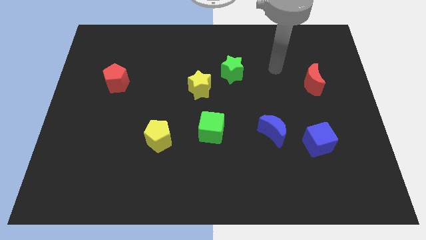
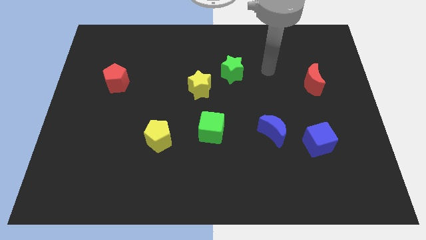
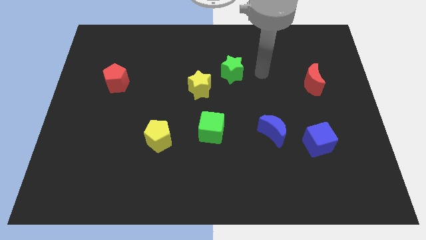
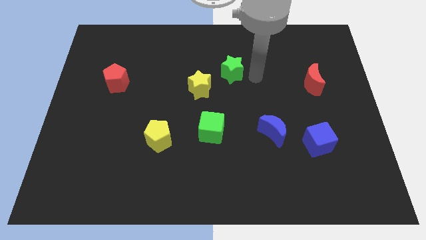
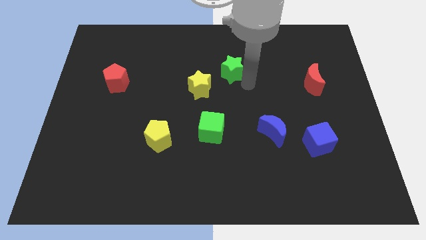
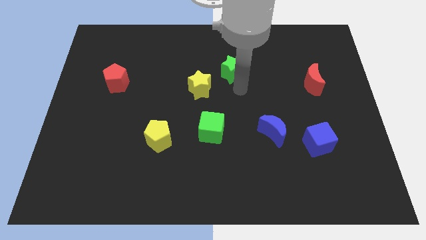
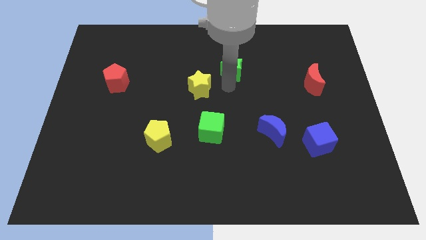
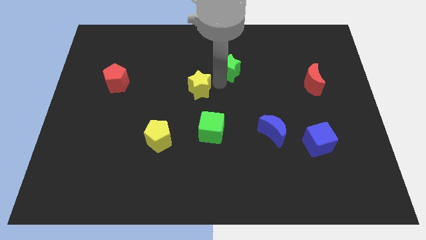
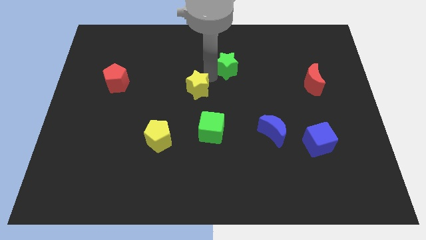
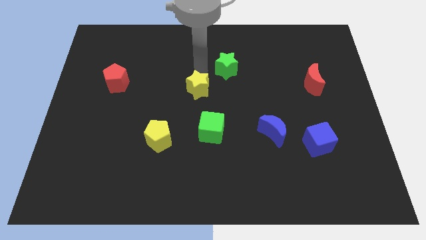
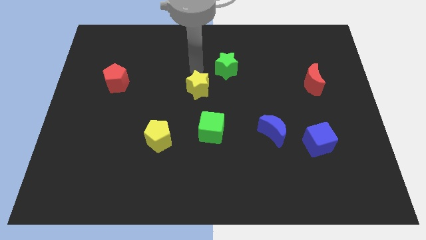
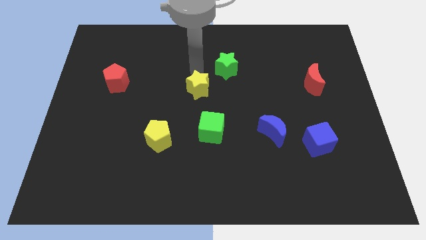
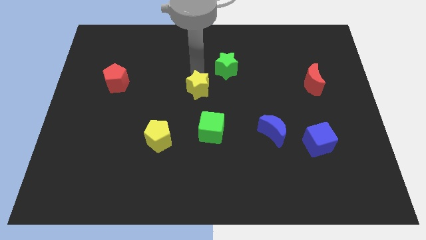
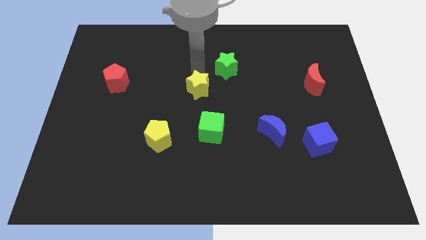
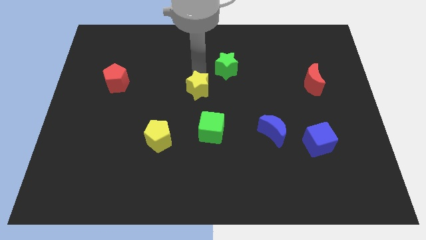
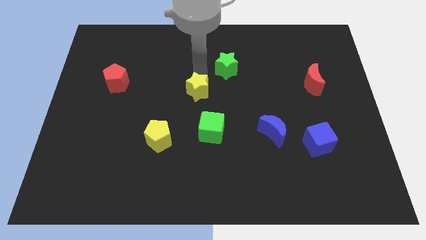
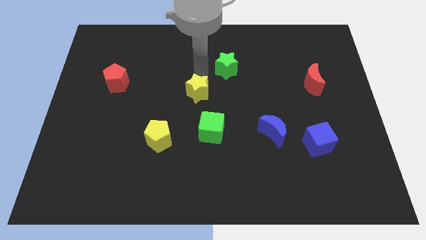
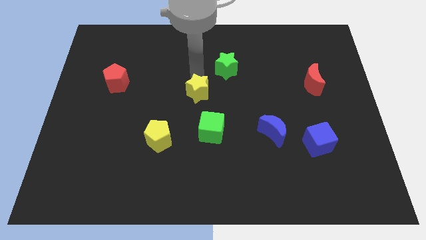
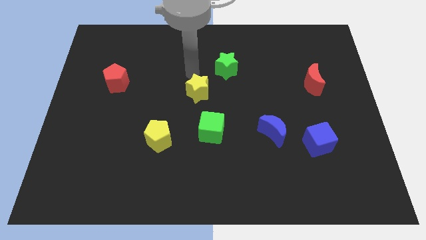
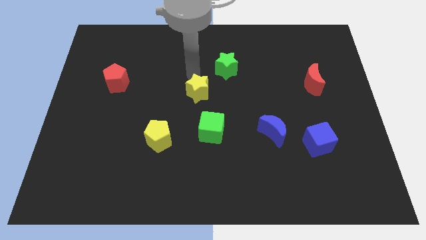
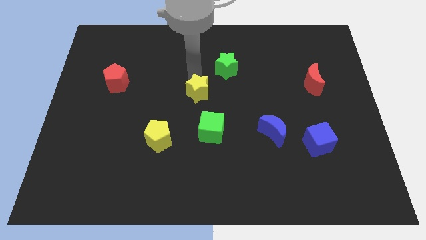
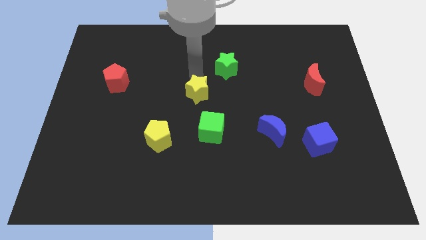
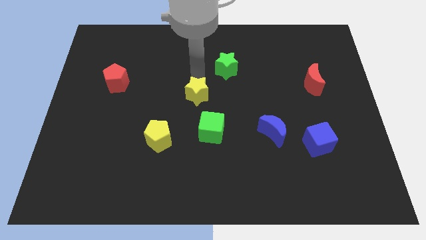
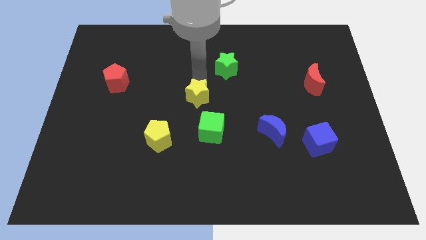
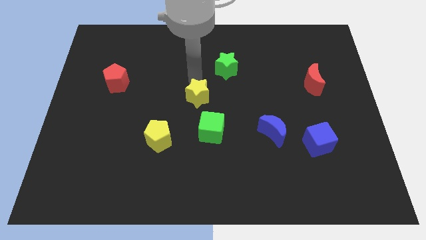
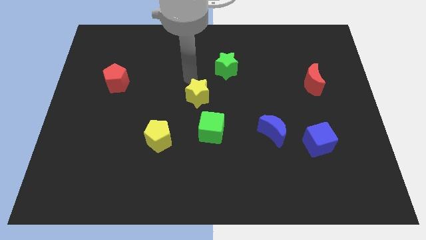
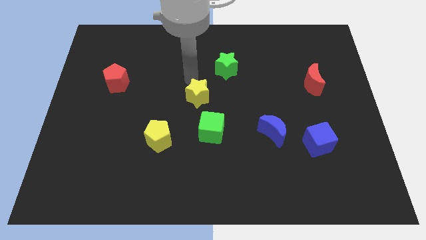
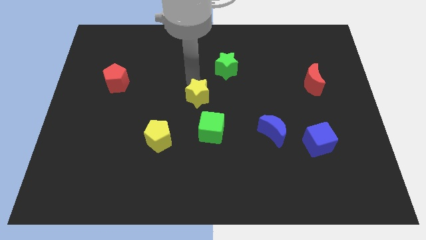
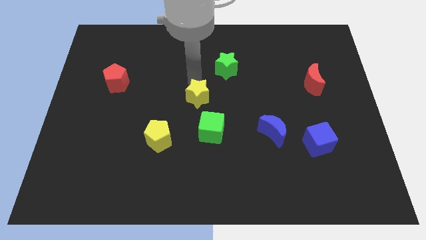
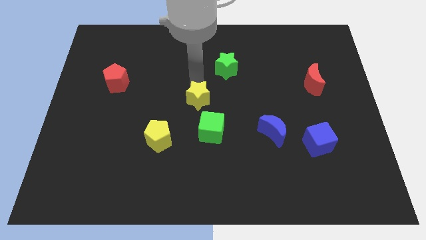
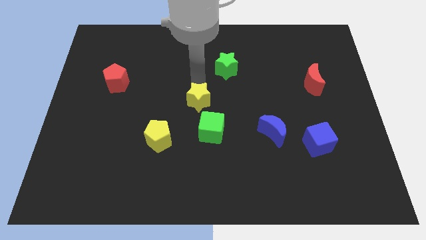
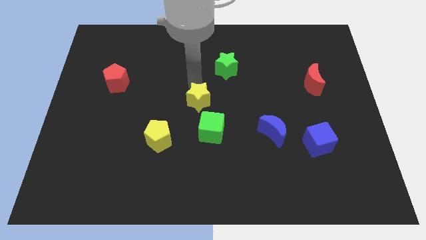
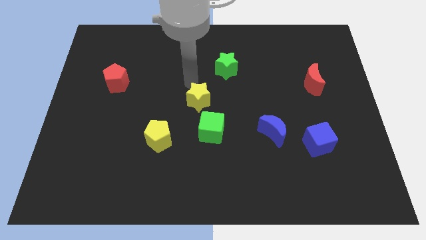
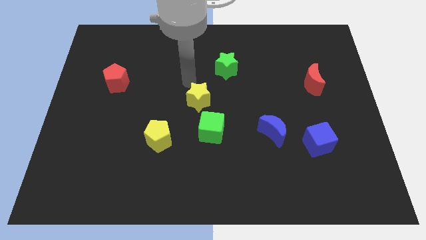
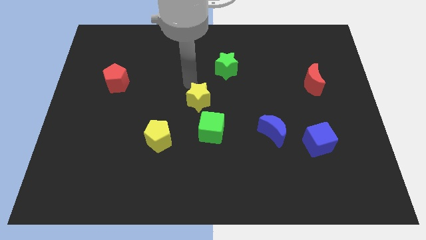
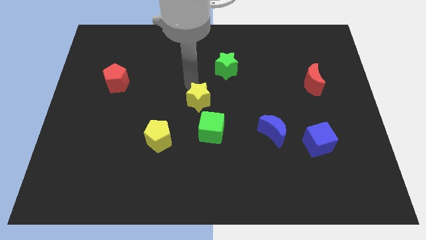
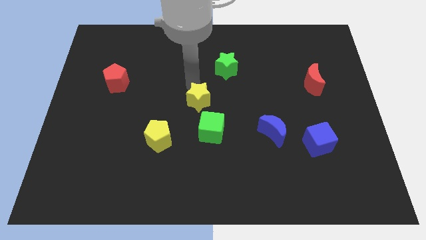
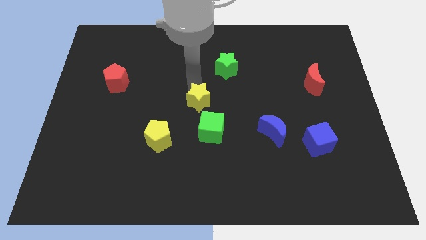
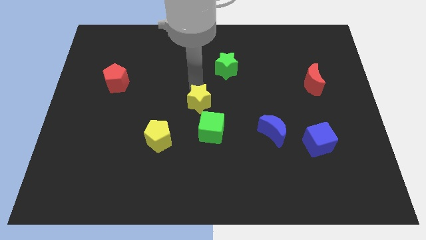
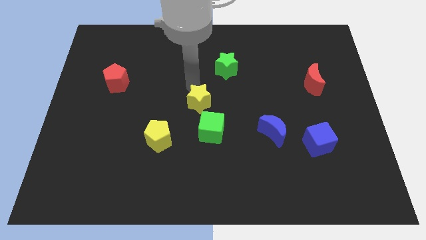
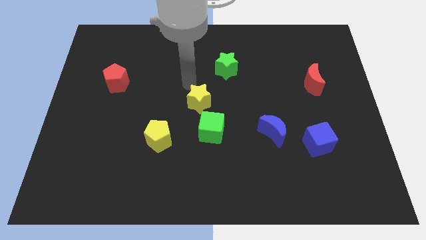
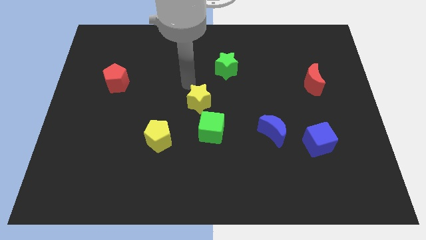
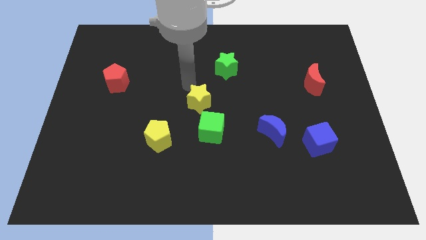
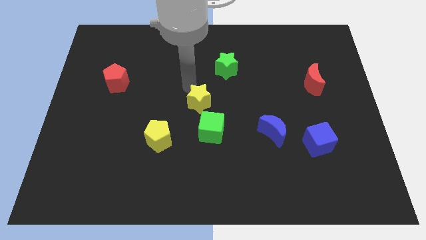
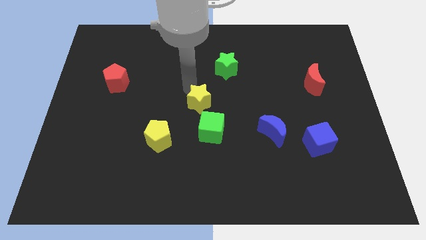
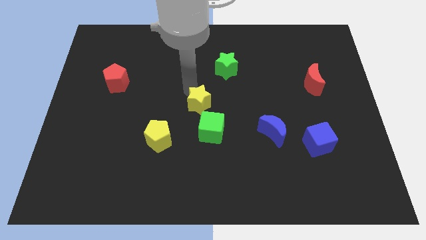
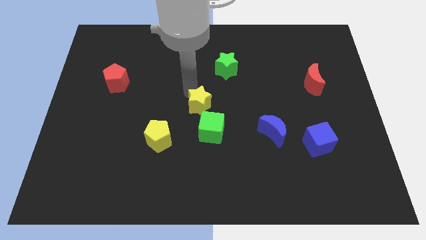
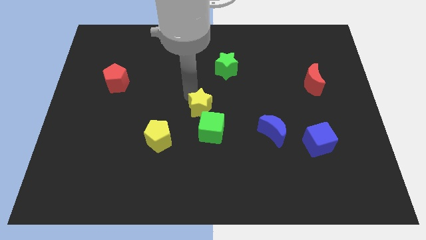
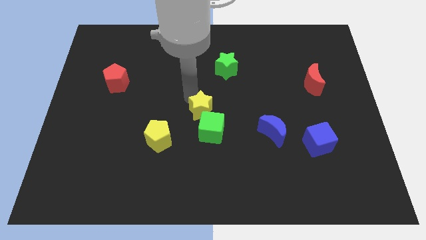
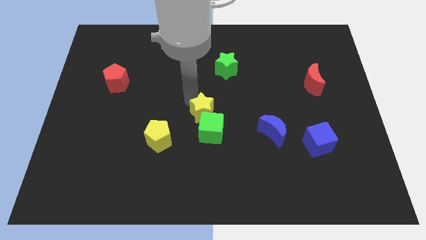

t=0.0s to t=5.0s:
move the yellow star close to the green cube

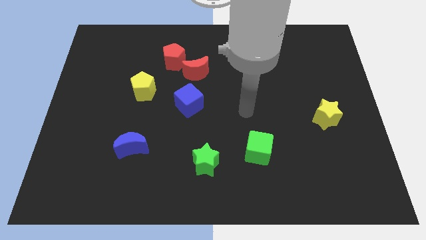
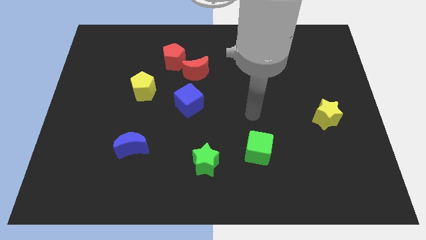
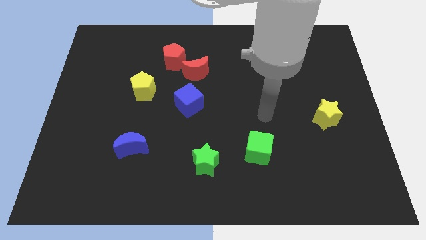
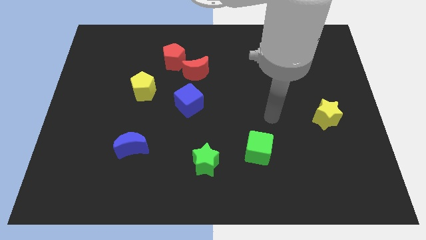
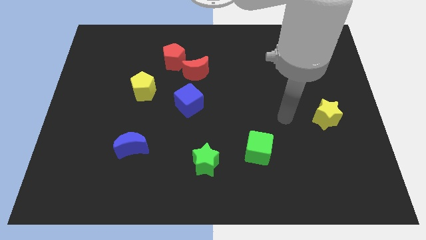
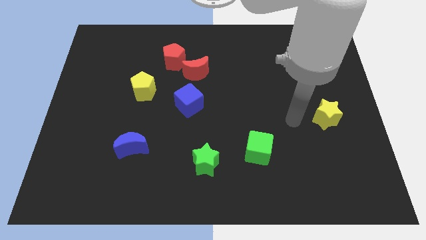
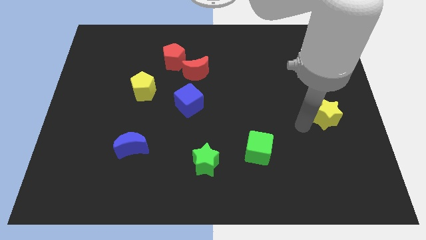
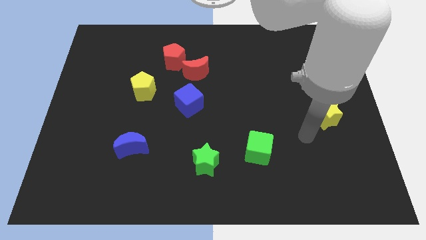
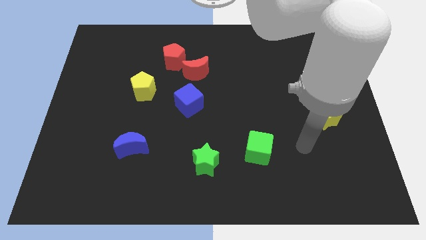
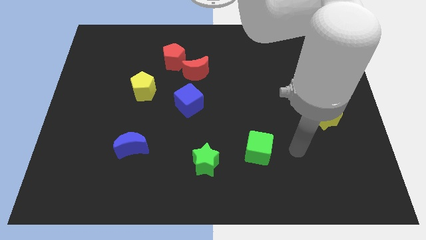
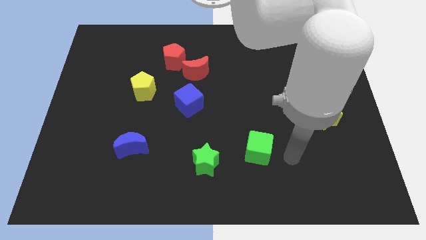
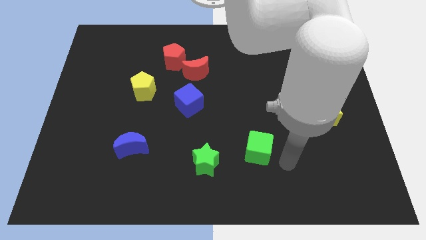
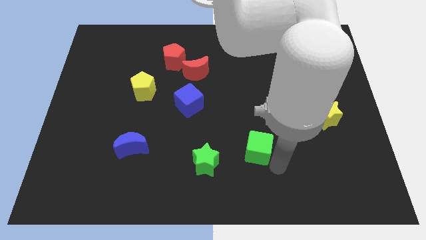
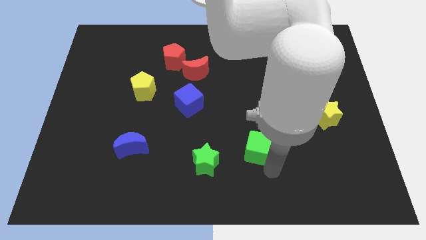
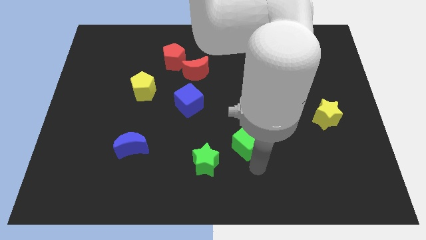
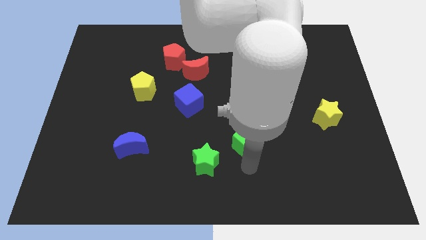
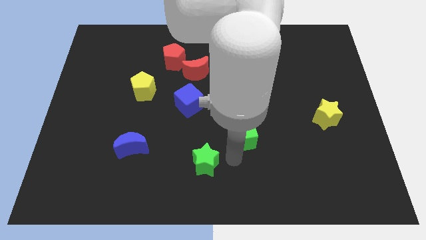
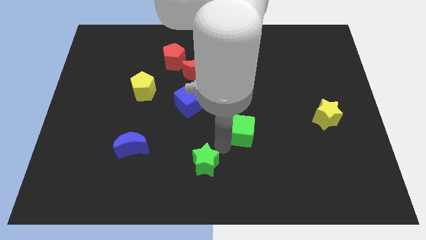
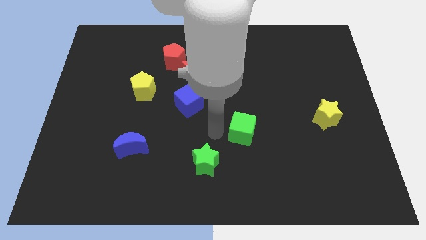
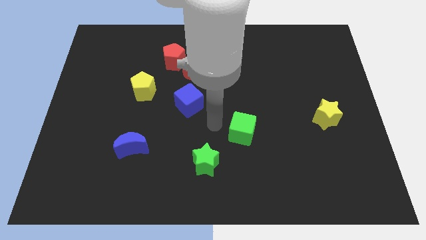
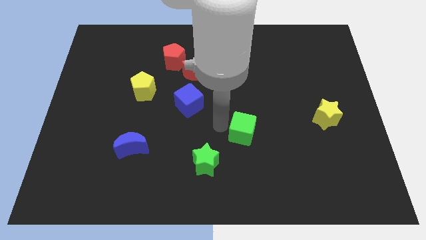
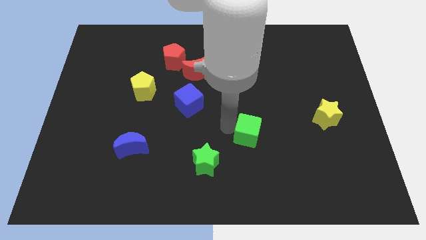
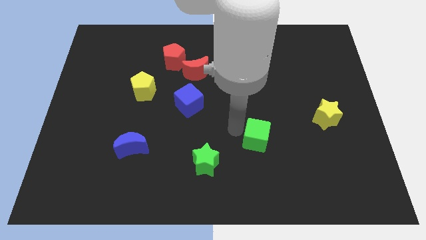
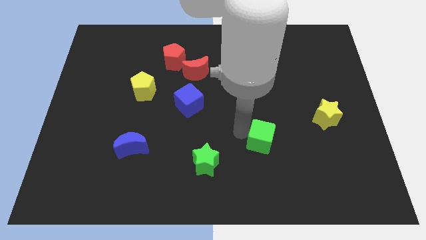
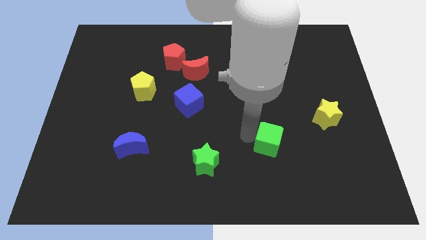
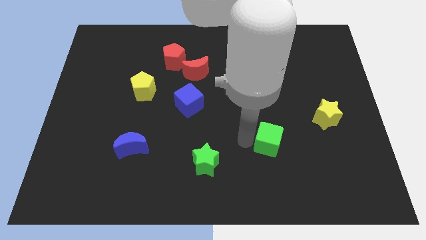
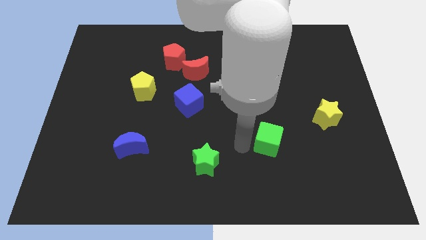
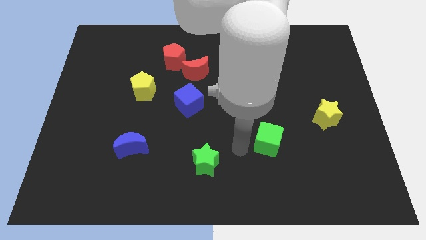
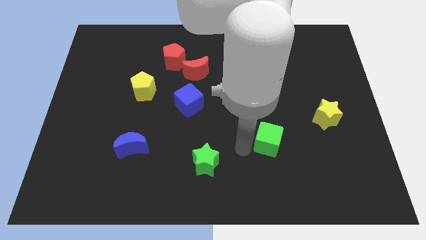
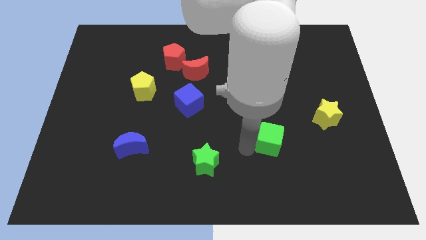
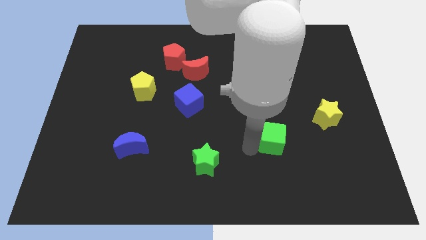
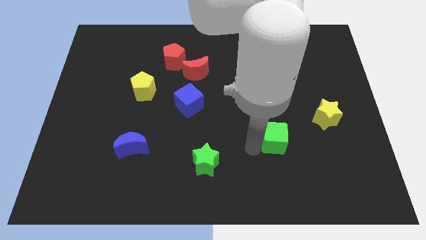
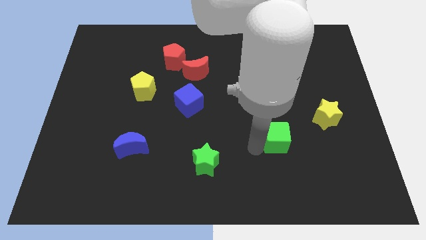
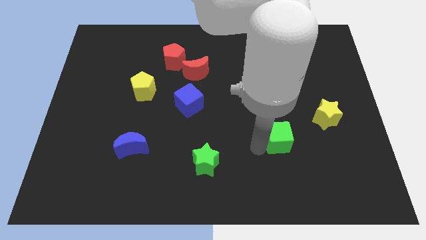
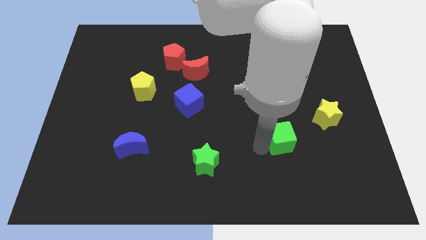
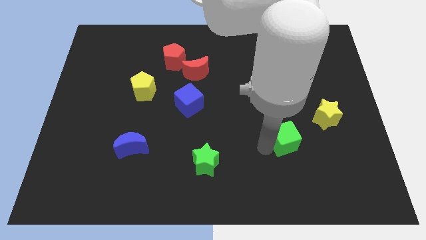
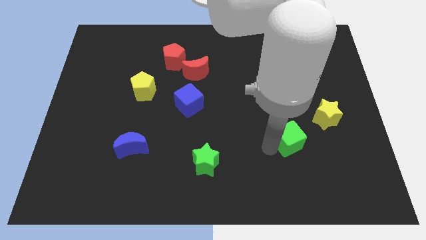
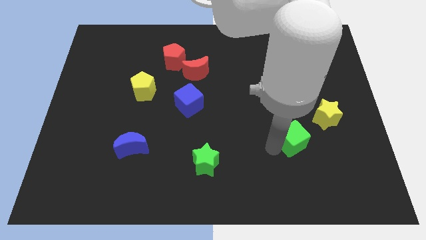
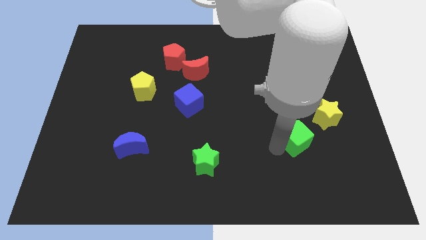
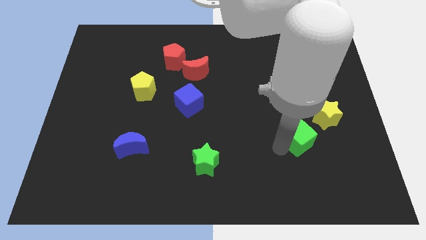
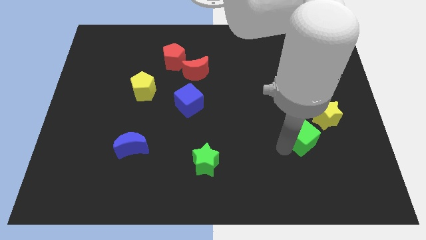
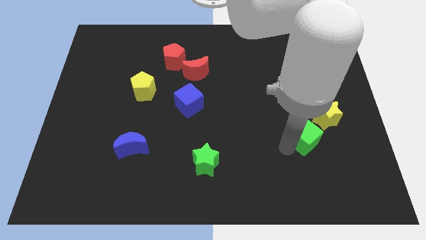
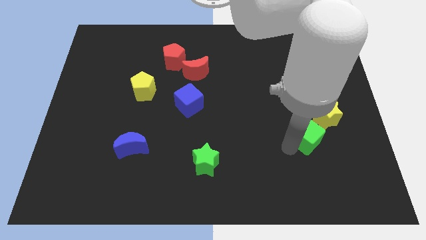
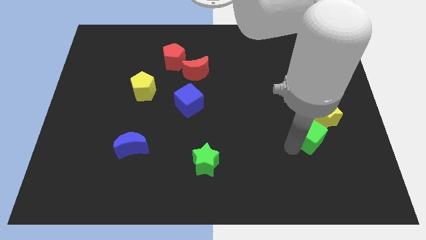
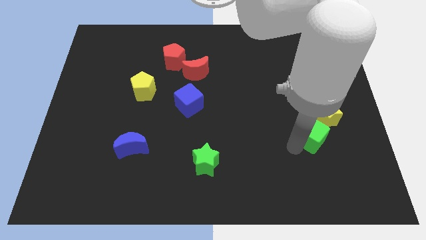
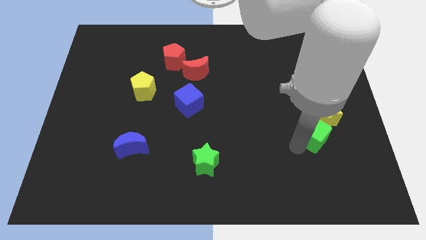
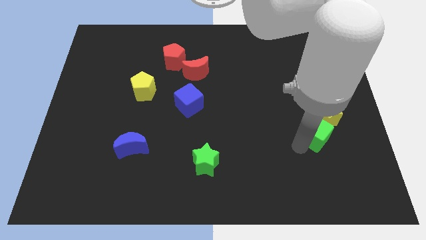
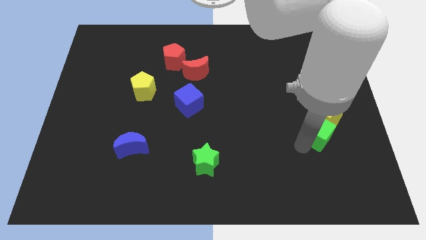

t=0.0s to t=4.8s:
put the green cube towards the yellow star
